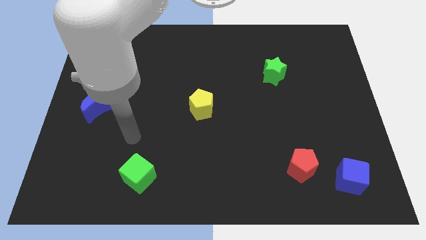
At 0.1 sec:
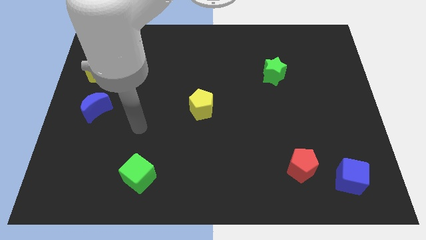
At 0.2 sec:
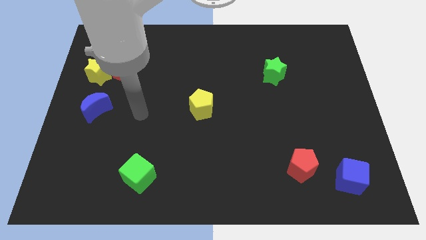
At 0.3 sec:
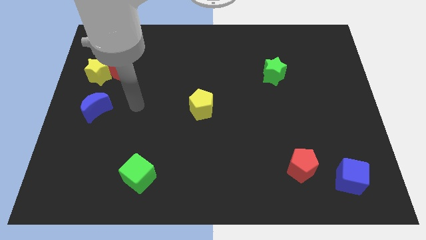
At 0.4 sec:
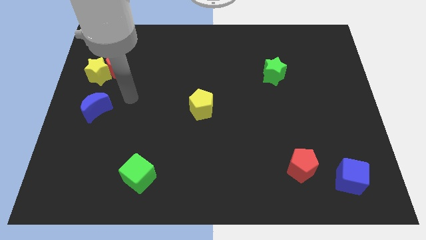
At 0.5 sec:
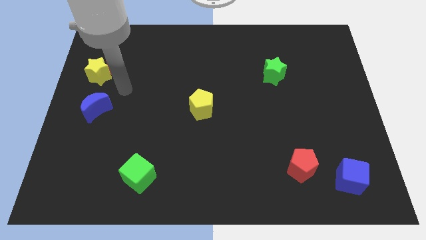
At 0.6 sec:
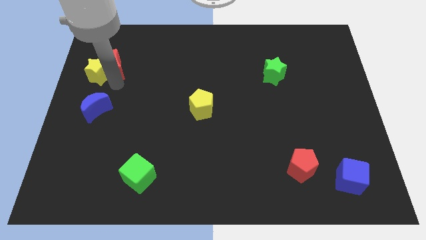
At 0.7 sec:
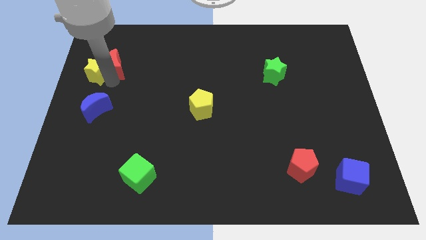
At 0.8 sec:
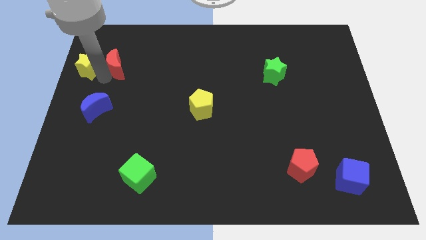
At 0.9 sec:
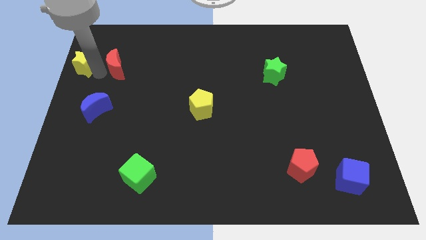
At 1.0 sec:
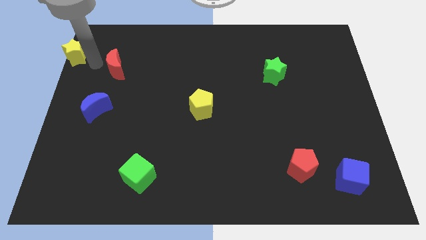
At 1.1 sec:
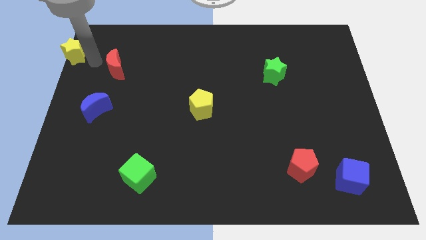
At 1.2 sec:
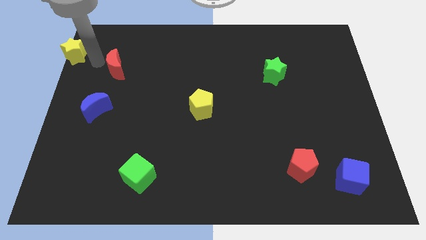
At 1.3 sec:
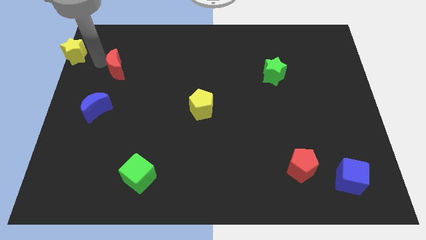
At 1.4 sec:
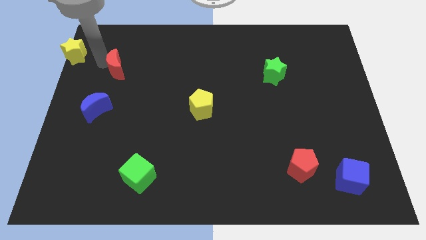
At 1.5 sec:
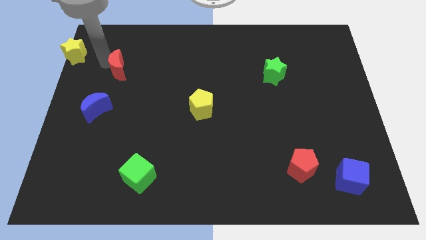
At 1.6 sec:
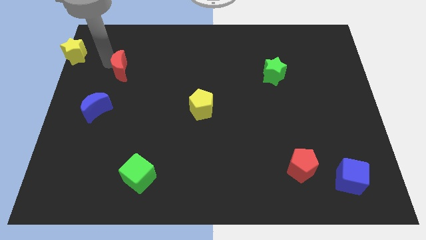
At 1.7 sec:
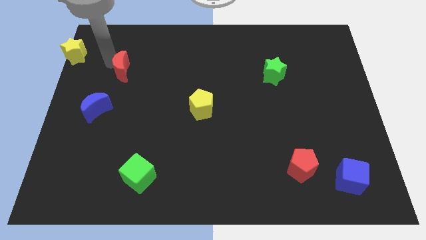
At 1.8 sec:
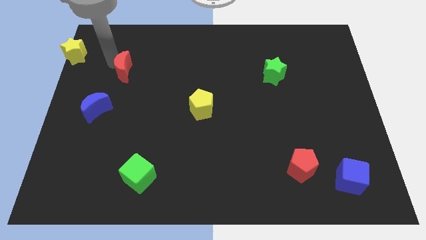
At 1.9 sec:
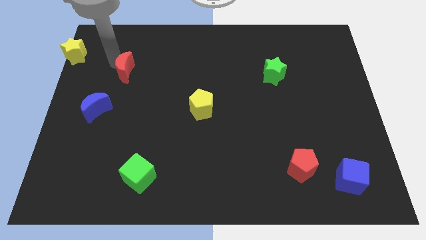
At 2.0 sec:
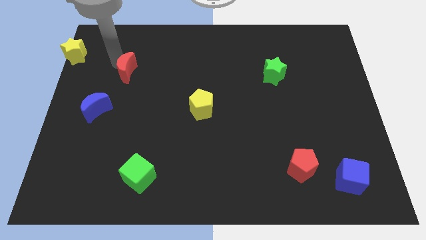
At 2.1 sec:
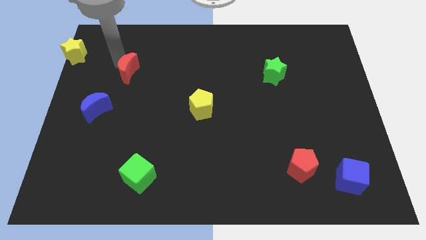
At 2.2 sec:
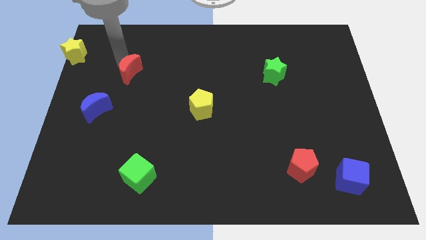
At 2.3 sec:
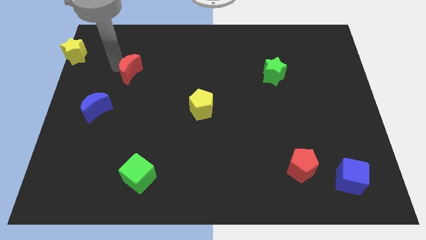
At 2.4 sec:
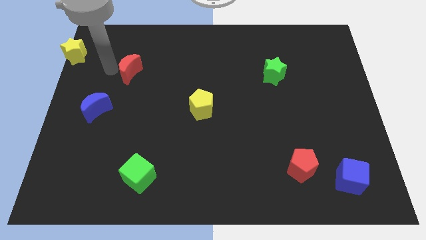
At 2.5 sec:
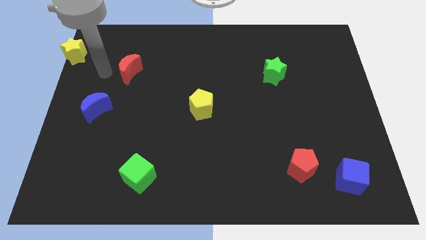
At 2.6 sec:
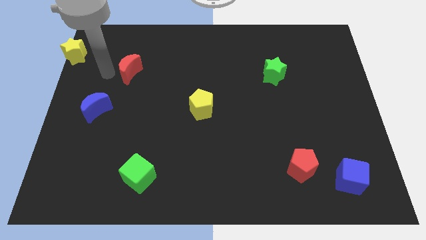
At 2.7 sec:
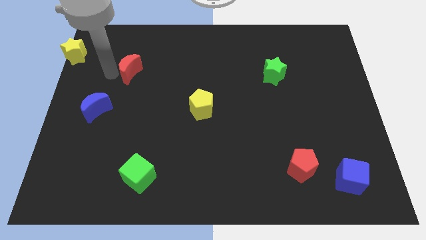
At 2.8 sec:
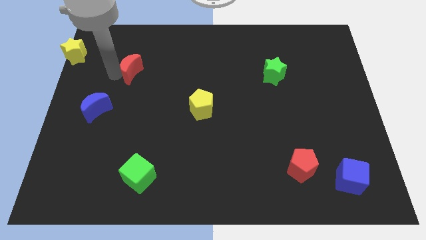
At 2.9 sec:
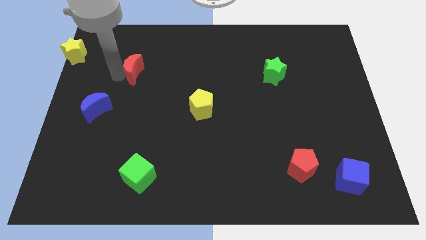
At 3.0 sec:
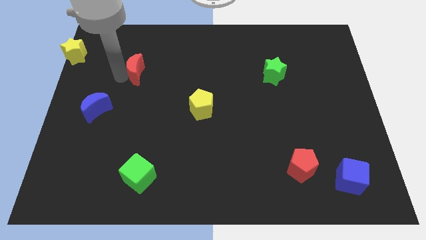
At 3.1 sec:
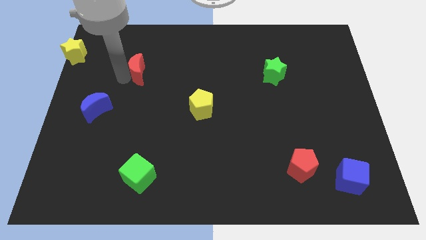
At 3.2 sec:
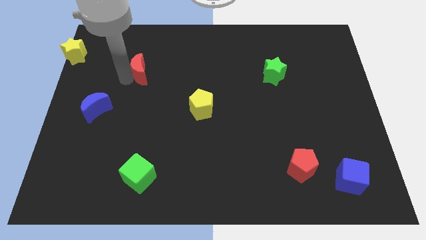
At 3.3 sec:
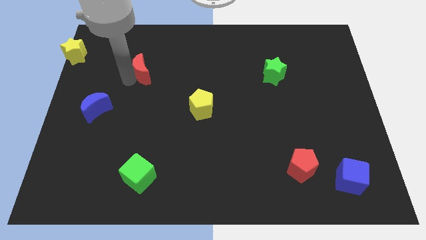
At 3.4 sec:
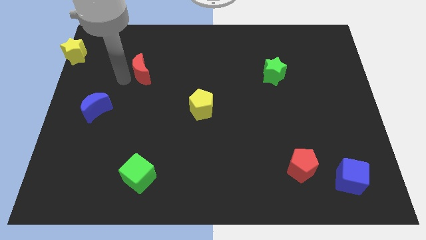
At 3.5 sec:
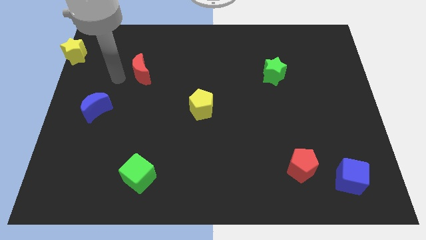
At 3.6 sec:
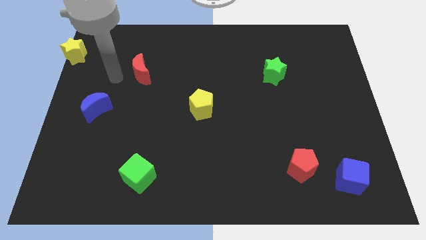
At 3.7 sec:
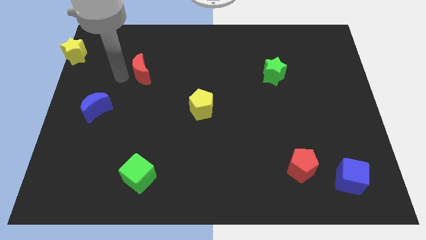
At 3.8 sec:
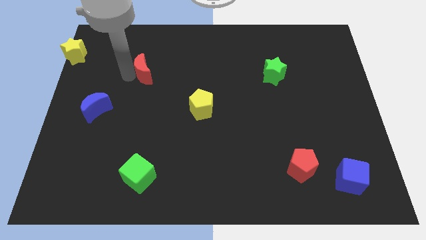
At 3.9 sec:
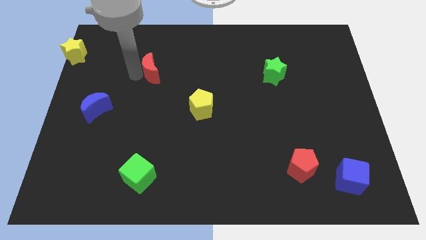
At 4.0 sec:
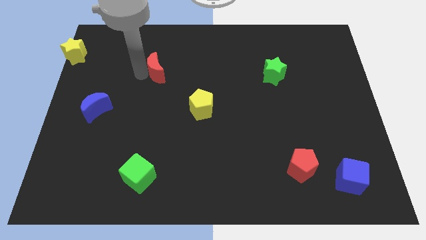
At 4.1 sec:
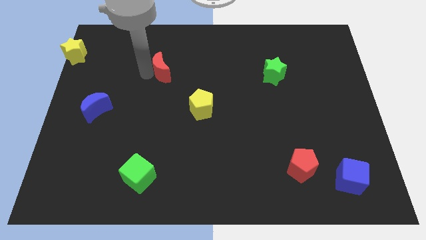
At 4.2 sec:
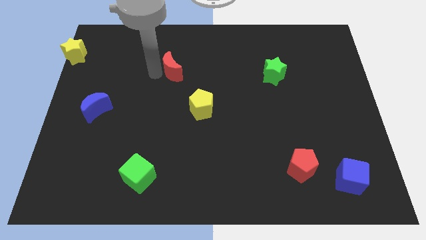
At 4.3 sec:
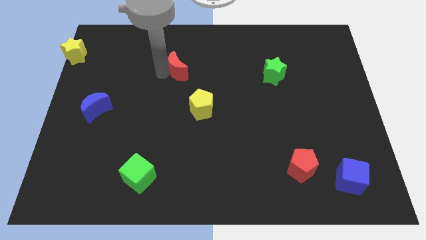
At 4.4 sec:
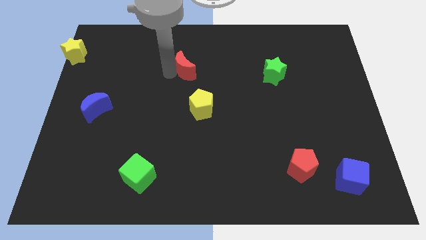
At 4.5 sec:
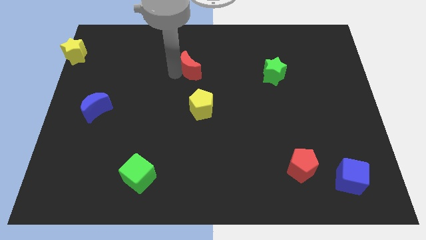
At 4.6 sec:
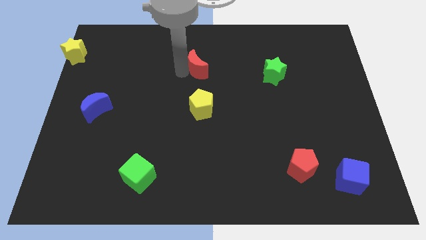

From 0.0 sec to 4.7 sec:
slide the red moon to the right

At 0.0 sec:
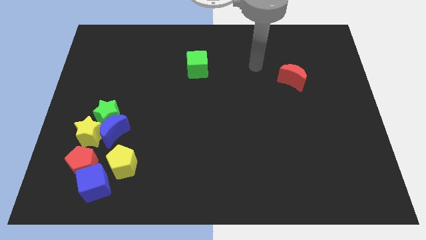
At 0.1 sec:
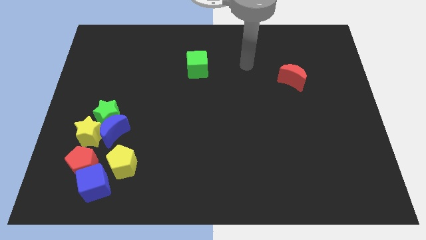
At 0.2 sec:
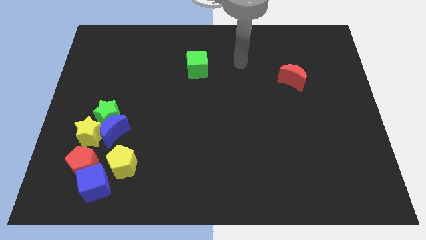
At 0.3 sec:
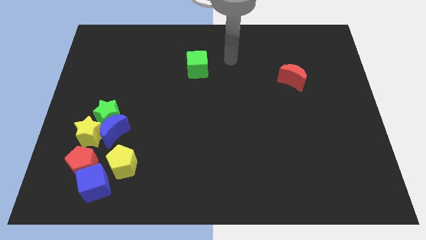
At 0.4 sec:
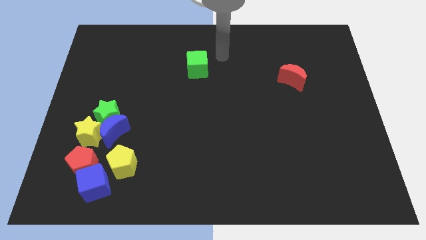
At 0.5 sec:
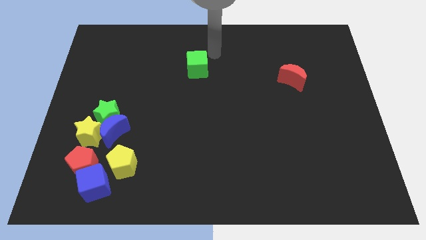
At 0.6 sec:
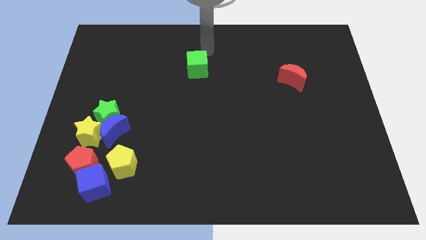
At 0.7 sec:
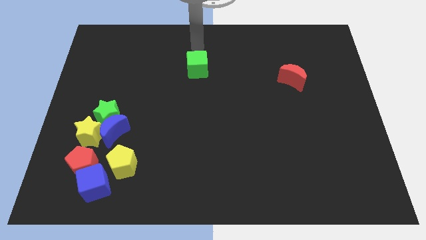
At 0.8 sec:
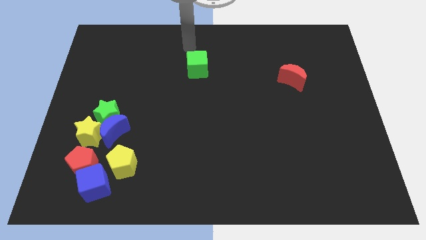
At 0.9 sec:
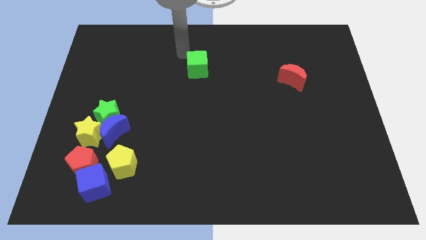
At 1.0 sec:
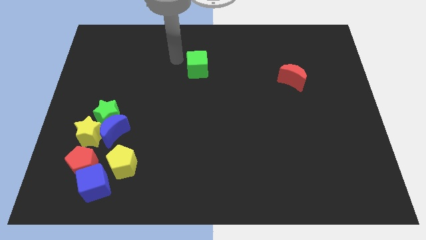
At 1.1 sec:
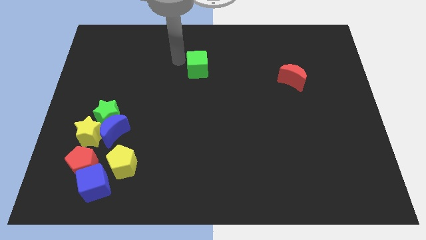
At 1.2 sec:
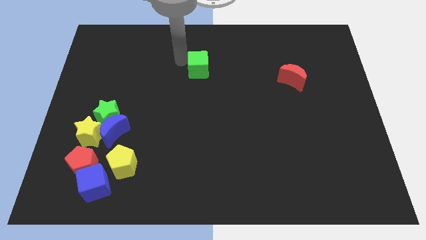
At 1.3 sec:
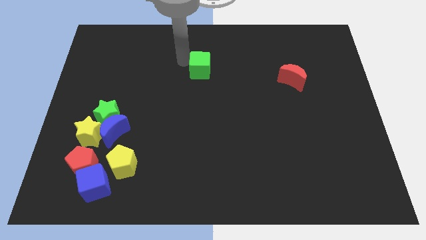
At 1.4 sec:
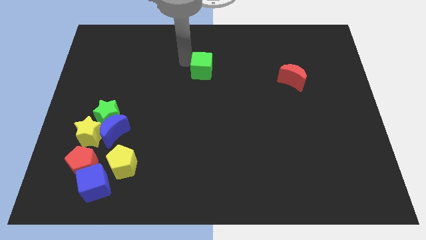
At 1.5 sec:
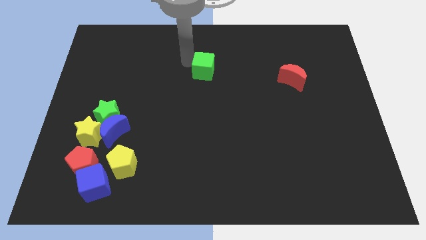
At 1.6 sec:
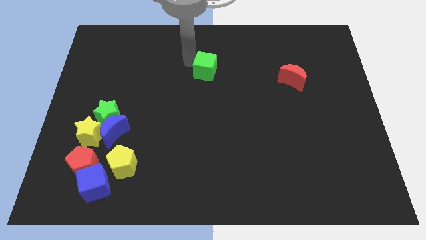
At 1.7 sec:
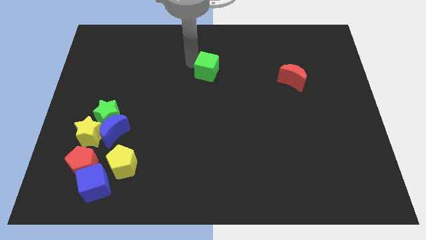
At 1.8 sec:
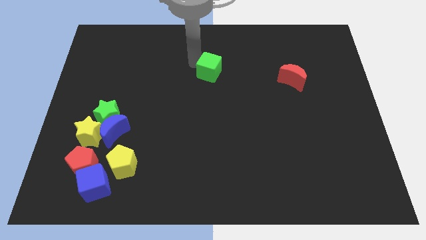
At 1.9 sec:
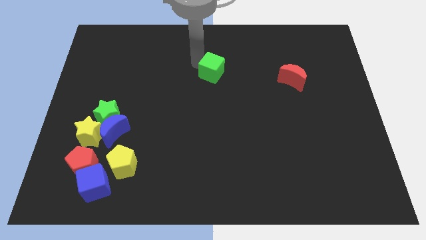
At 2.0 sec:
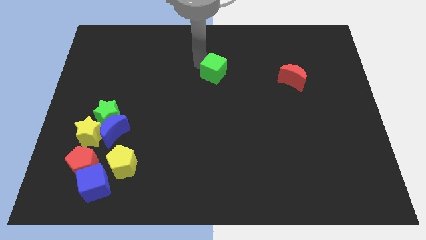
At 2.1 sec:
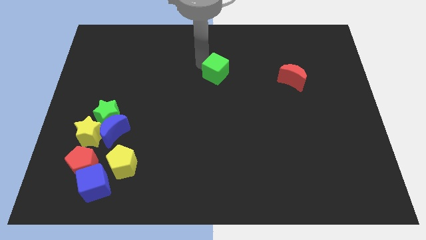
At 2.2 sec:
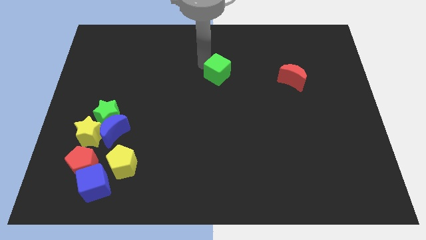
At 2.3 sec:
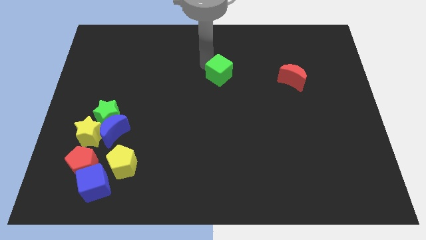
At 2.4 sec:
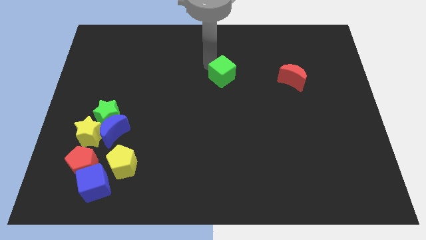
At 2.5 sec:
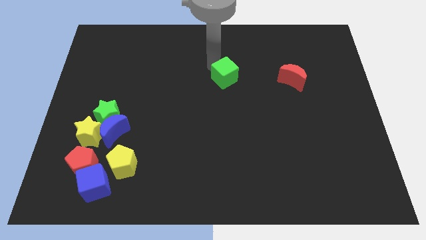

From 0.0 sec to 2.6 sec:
slide the green cube down and right a little bit

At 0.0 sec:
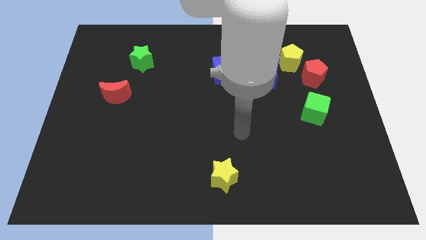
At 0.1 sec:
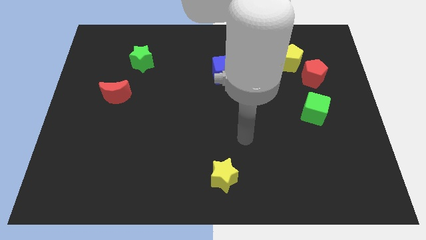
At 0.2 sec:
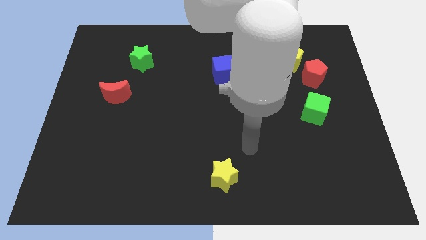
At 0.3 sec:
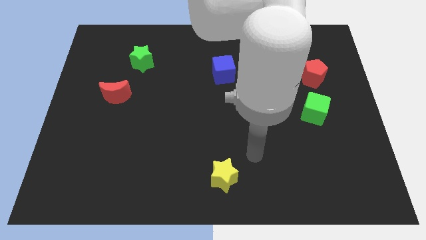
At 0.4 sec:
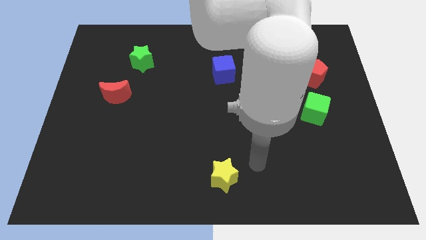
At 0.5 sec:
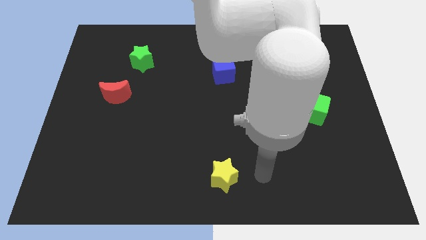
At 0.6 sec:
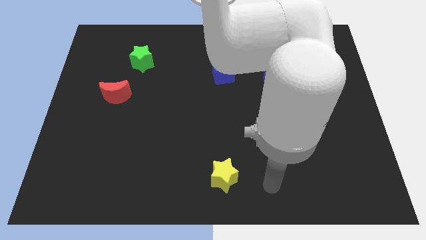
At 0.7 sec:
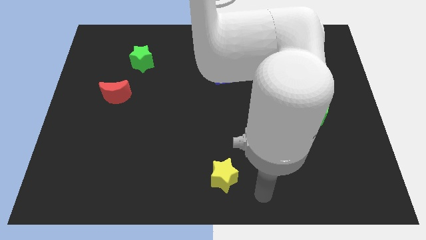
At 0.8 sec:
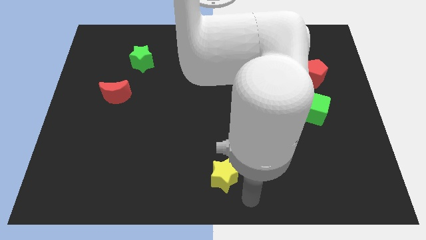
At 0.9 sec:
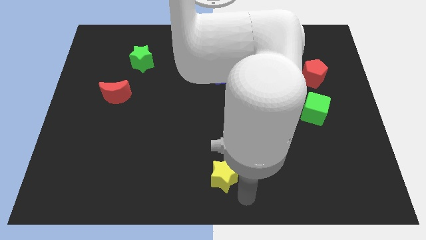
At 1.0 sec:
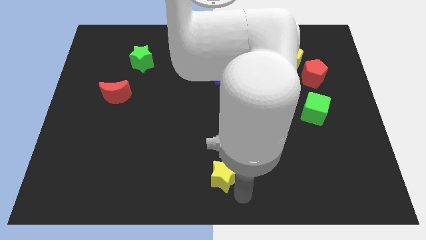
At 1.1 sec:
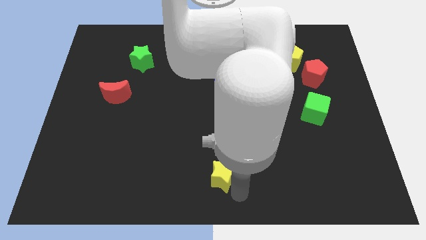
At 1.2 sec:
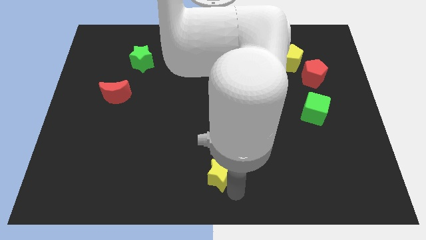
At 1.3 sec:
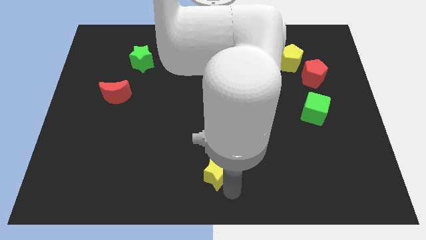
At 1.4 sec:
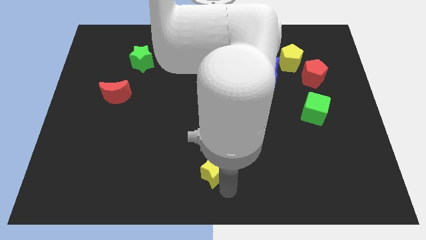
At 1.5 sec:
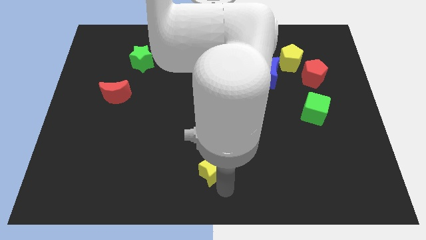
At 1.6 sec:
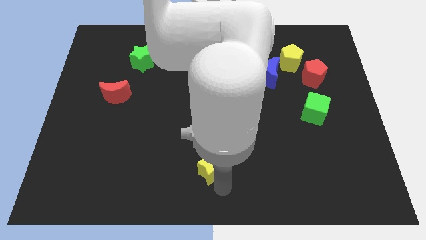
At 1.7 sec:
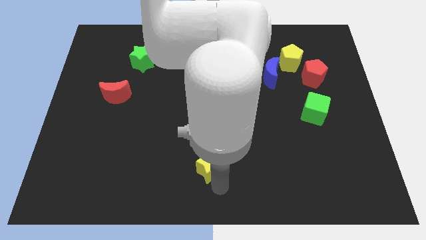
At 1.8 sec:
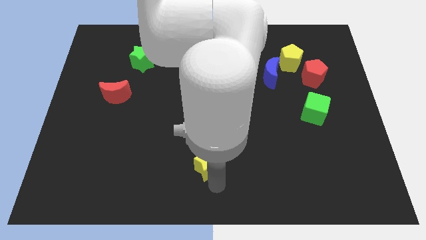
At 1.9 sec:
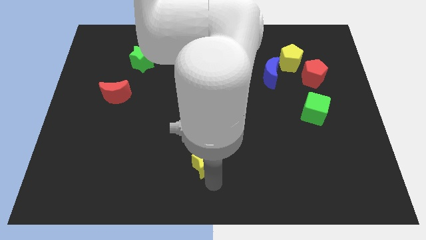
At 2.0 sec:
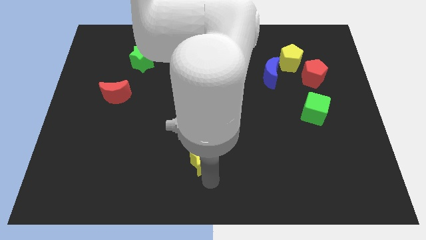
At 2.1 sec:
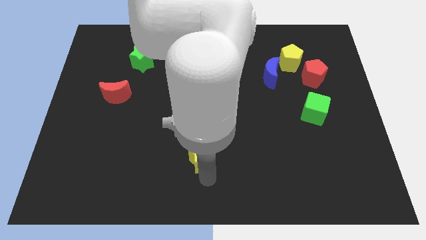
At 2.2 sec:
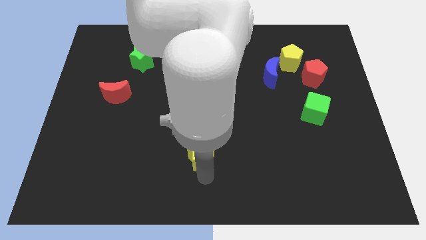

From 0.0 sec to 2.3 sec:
slightly slide the yellow star diagonally up and to the left
